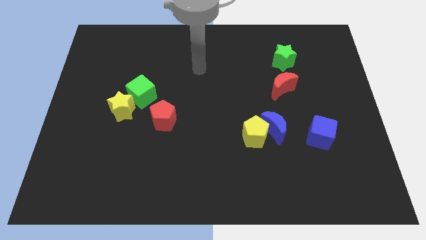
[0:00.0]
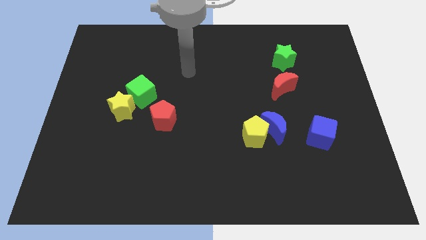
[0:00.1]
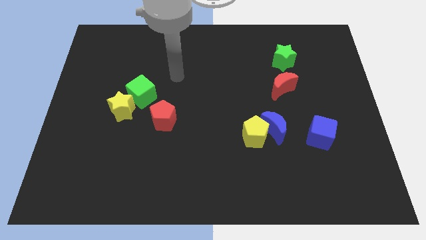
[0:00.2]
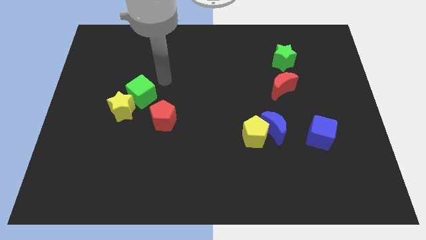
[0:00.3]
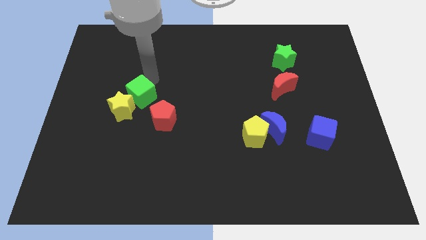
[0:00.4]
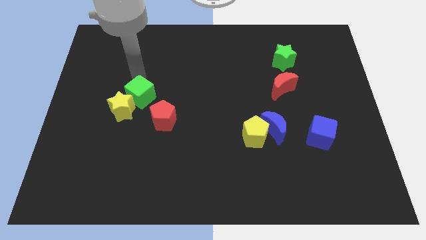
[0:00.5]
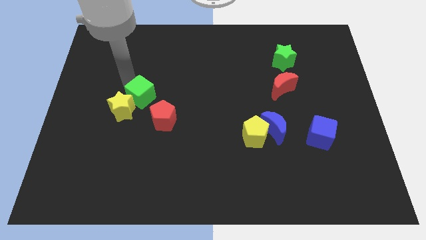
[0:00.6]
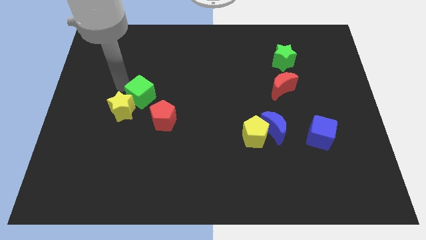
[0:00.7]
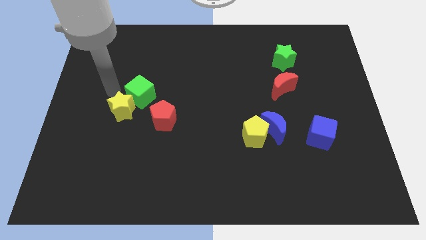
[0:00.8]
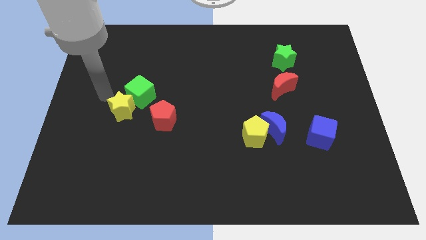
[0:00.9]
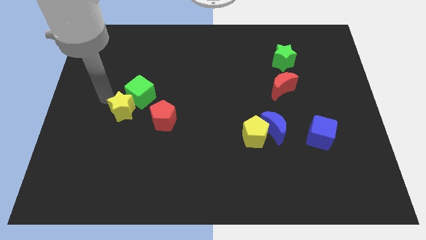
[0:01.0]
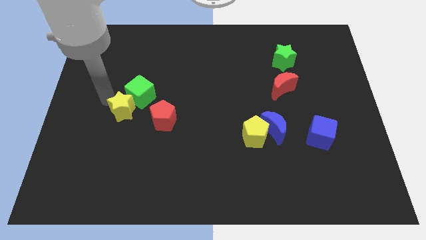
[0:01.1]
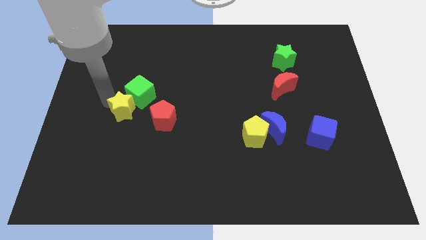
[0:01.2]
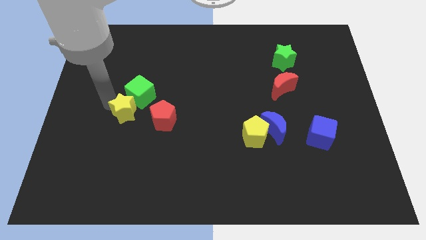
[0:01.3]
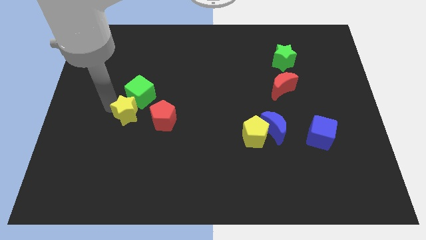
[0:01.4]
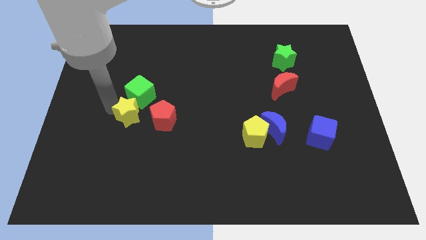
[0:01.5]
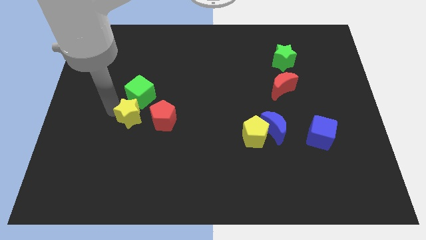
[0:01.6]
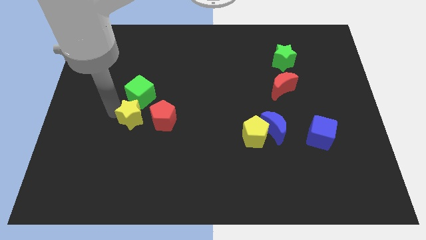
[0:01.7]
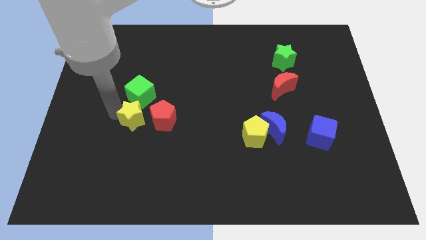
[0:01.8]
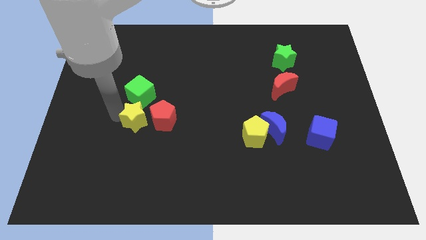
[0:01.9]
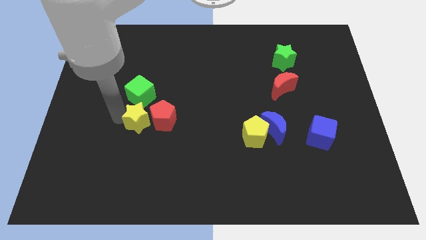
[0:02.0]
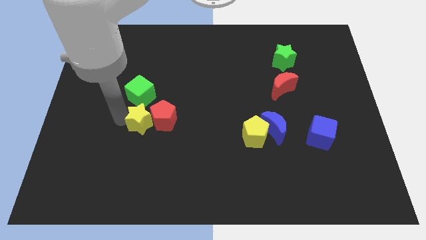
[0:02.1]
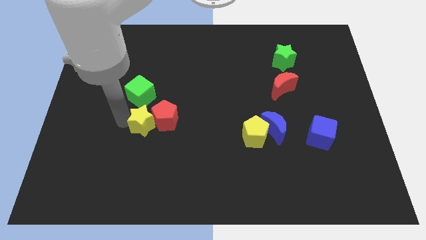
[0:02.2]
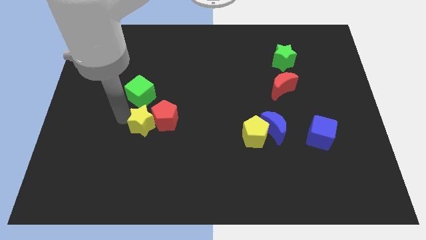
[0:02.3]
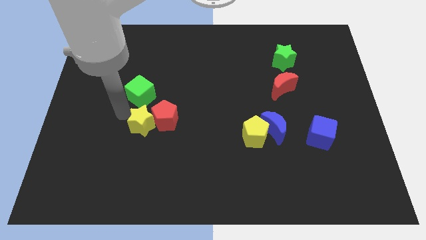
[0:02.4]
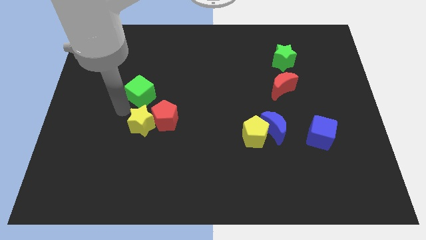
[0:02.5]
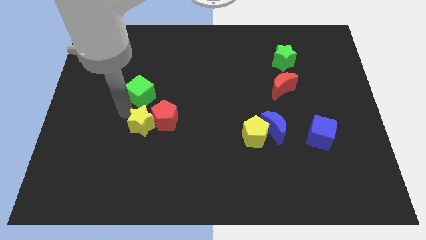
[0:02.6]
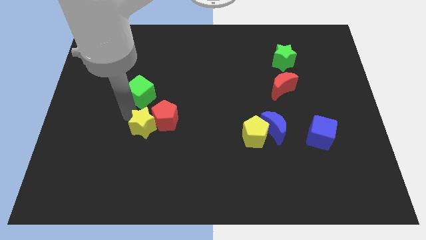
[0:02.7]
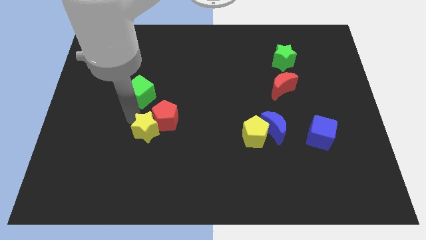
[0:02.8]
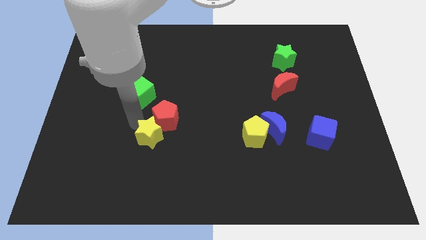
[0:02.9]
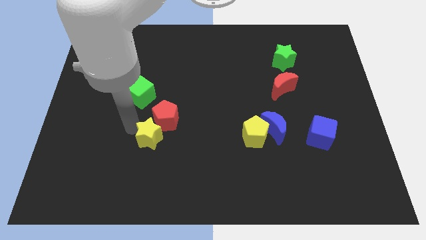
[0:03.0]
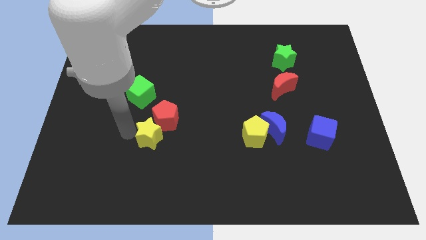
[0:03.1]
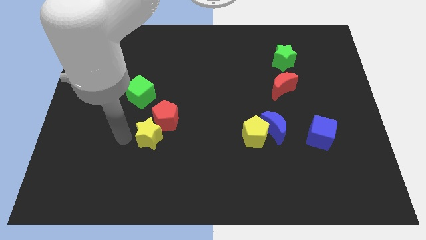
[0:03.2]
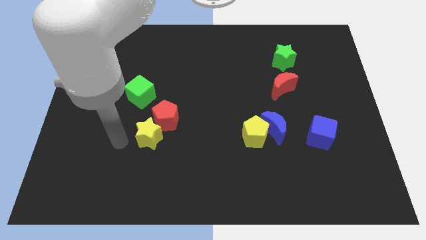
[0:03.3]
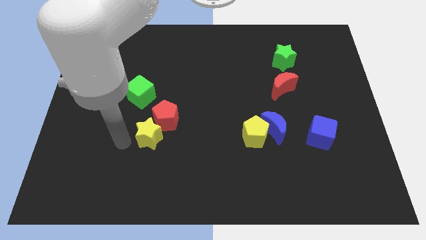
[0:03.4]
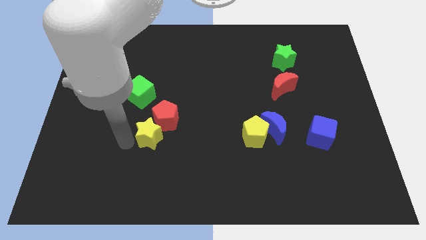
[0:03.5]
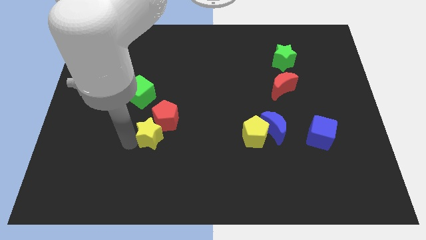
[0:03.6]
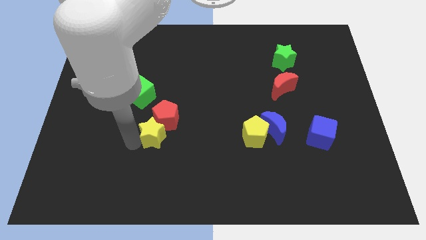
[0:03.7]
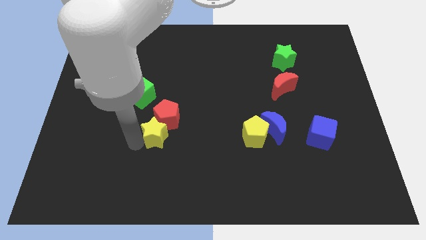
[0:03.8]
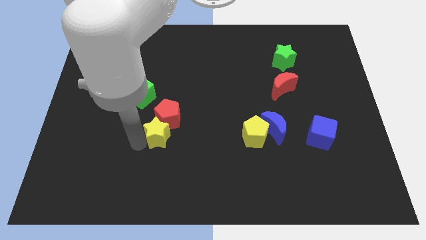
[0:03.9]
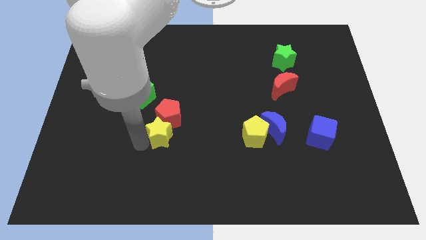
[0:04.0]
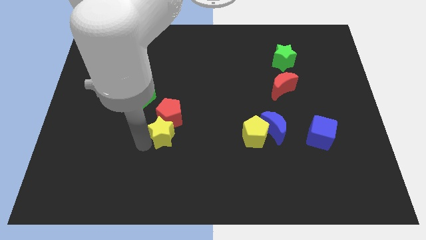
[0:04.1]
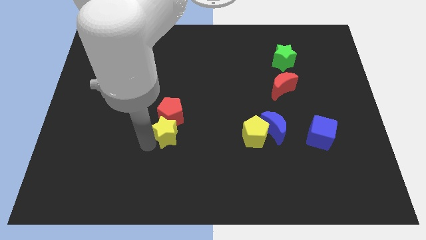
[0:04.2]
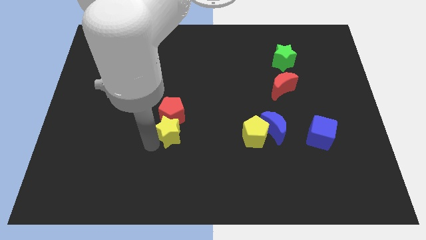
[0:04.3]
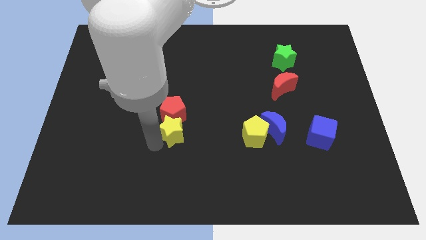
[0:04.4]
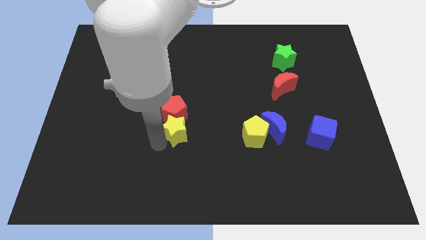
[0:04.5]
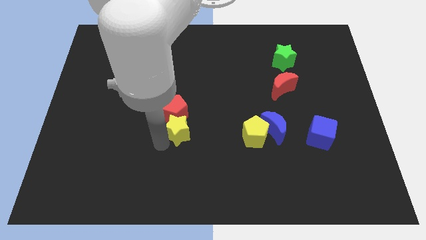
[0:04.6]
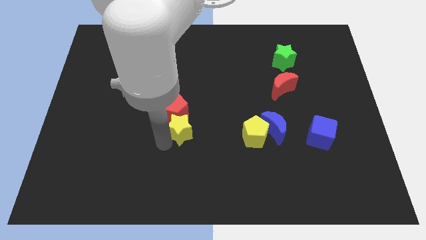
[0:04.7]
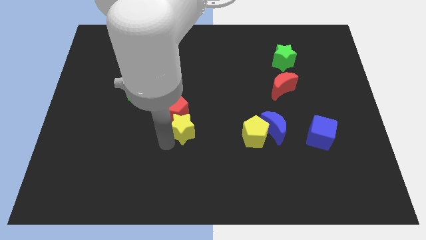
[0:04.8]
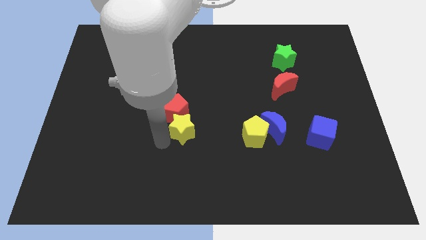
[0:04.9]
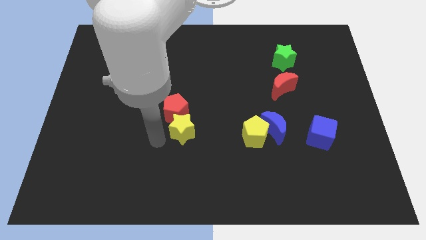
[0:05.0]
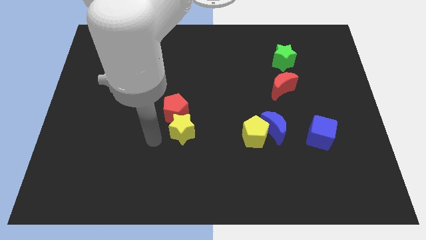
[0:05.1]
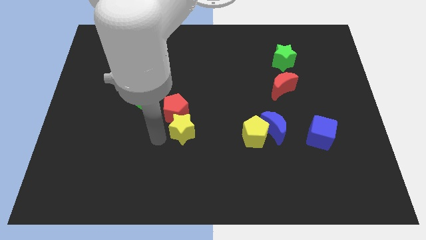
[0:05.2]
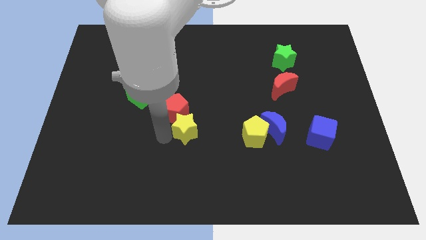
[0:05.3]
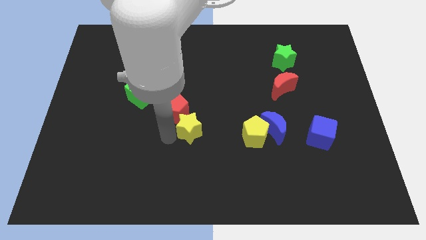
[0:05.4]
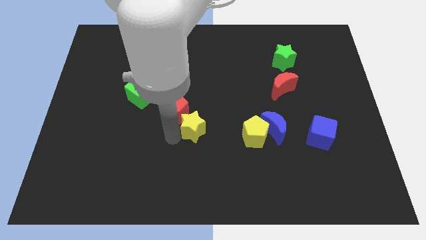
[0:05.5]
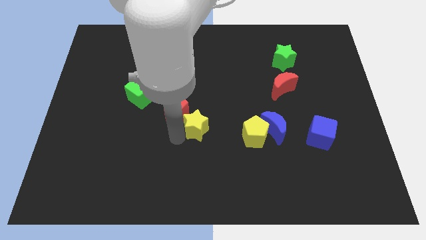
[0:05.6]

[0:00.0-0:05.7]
slide the yellow star to the right of the red pentagon

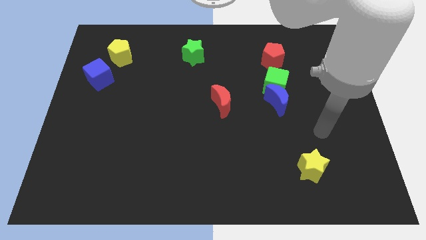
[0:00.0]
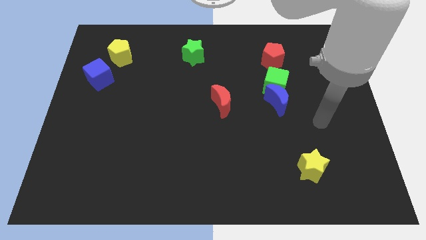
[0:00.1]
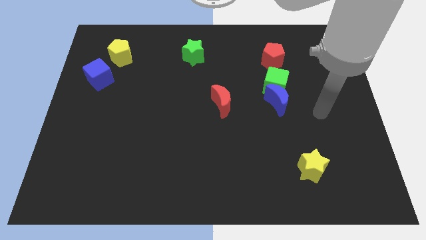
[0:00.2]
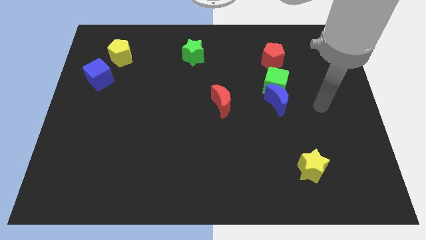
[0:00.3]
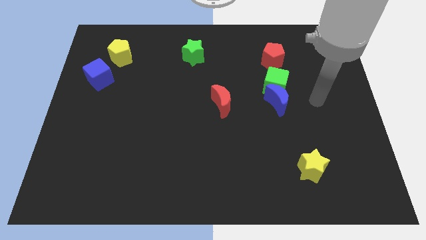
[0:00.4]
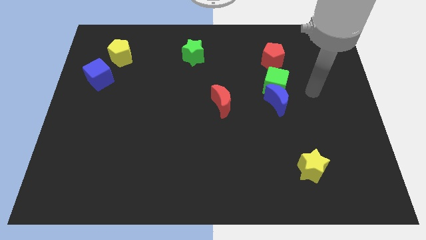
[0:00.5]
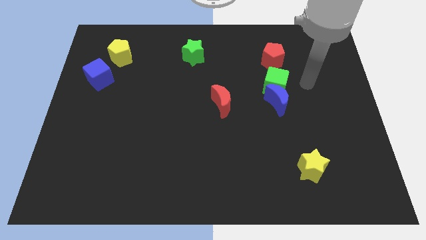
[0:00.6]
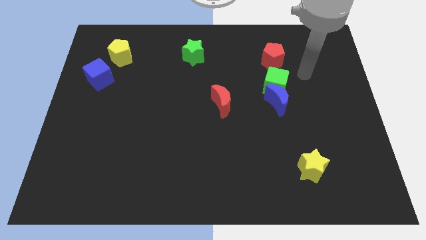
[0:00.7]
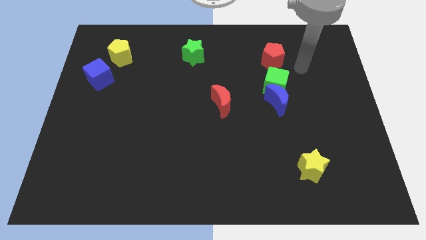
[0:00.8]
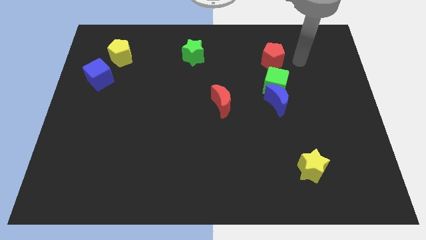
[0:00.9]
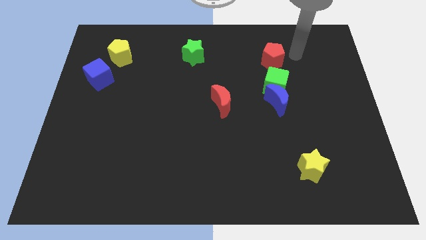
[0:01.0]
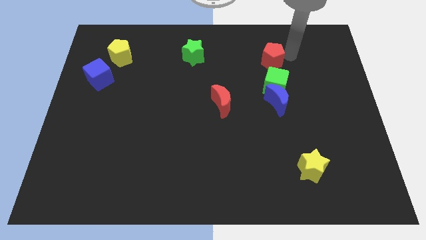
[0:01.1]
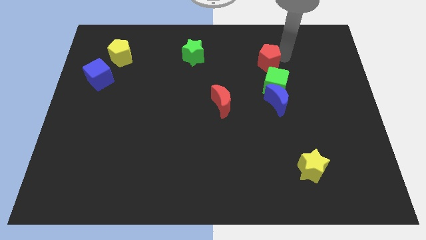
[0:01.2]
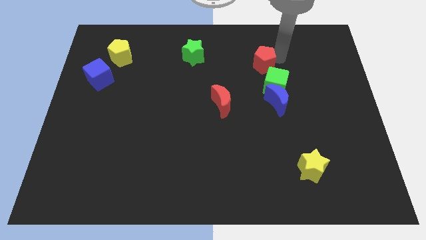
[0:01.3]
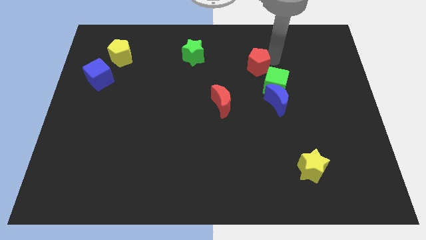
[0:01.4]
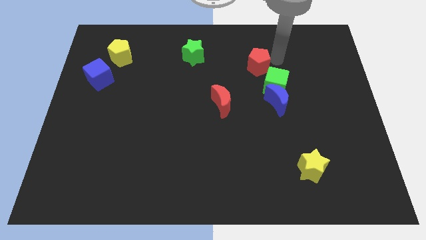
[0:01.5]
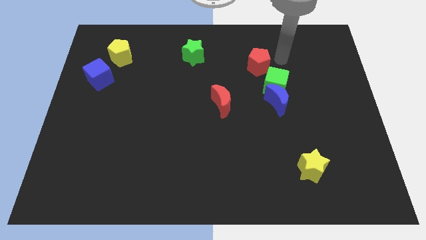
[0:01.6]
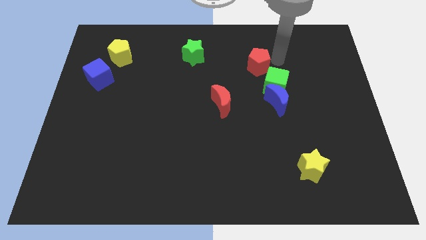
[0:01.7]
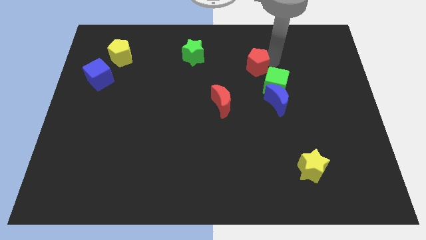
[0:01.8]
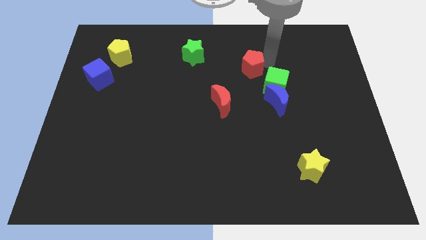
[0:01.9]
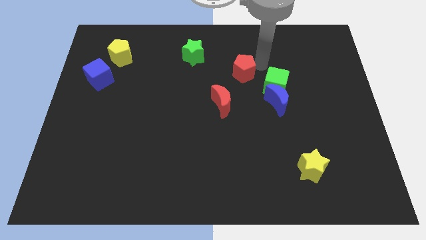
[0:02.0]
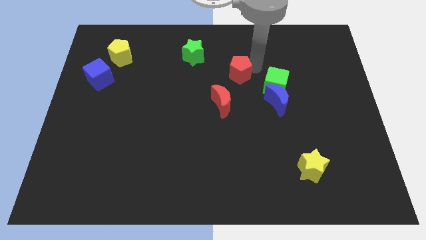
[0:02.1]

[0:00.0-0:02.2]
slide the red pentagon to the top of the red moon
